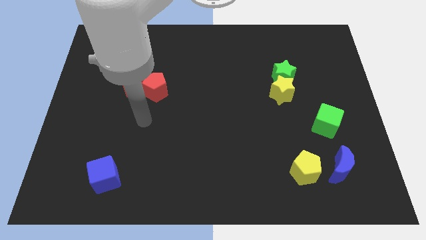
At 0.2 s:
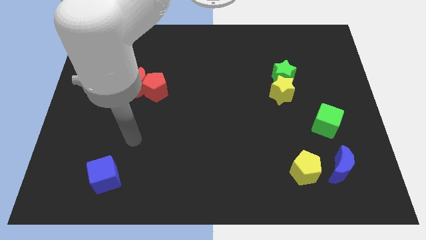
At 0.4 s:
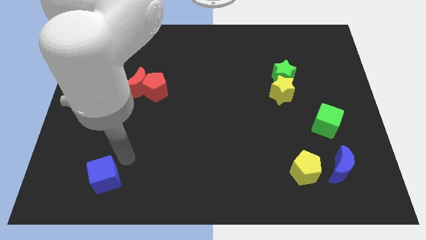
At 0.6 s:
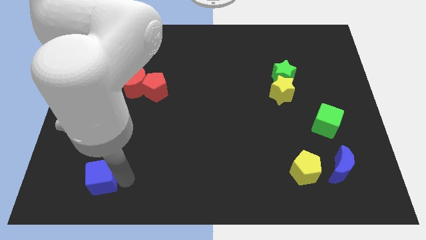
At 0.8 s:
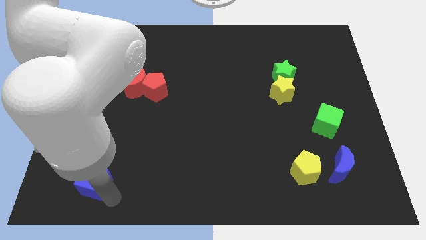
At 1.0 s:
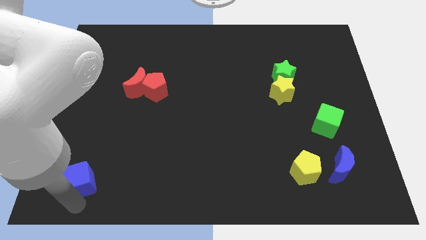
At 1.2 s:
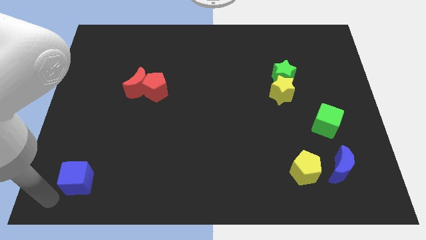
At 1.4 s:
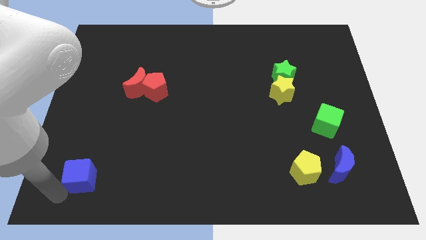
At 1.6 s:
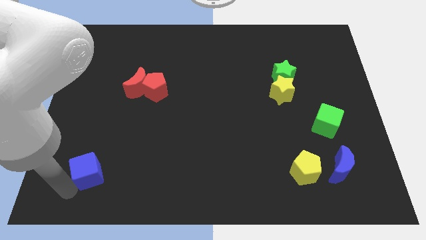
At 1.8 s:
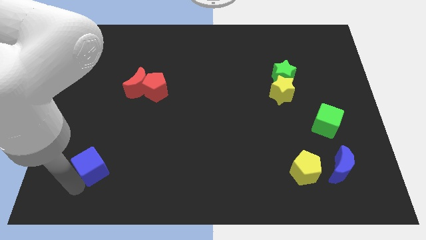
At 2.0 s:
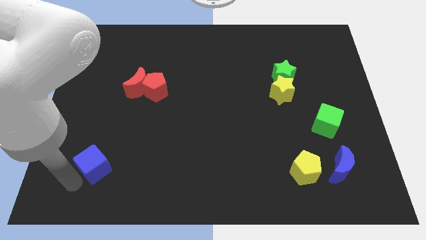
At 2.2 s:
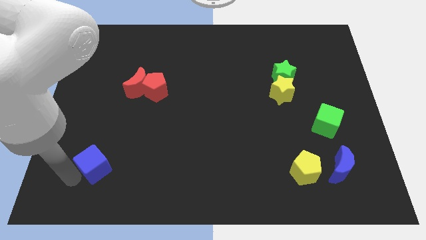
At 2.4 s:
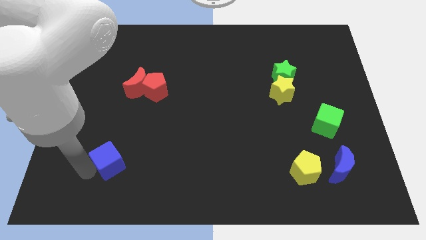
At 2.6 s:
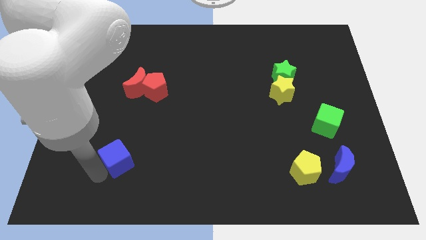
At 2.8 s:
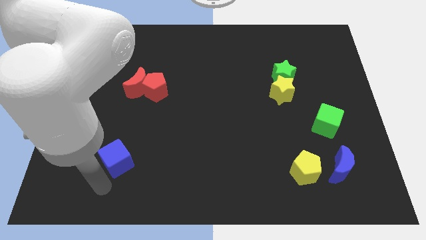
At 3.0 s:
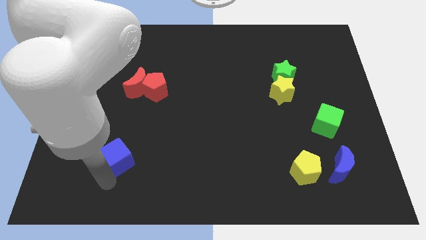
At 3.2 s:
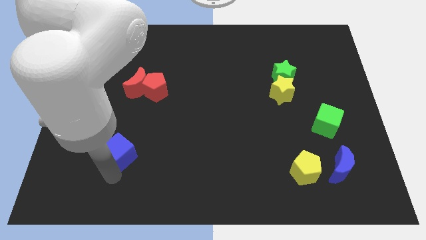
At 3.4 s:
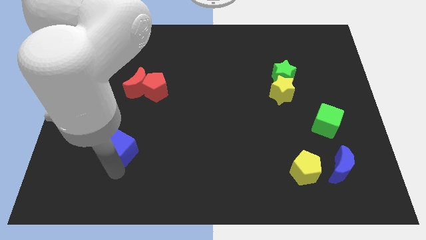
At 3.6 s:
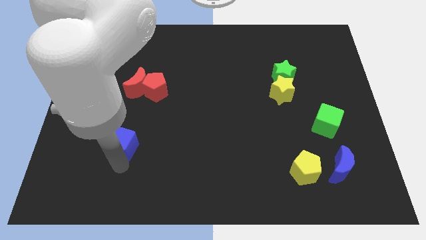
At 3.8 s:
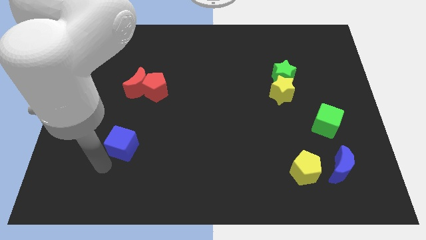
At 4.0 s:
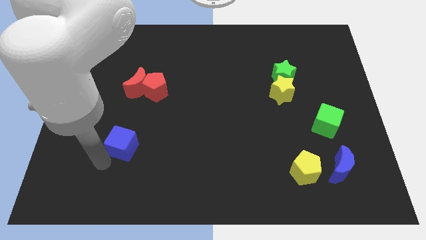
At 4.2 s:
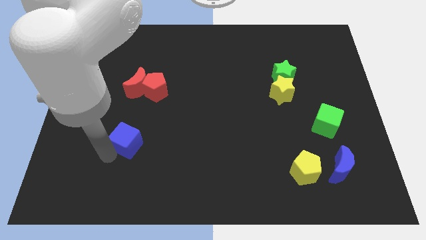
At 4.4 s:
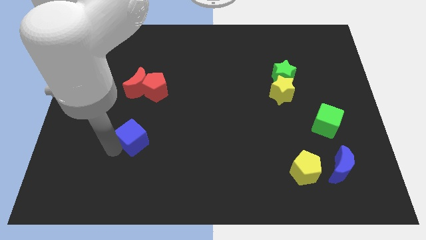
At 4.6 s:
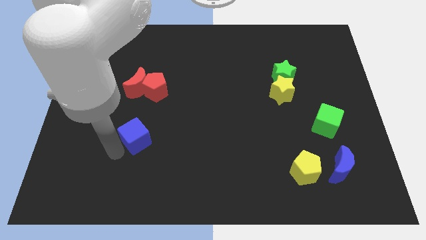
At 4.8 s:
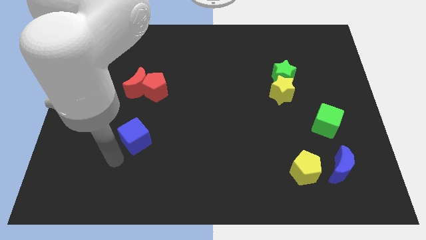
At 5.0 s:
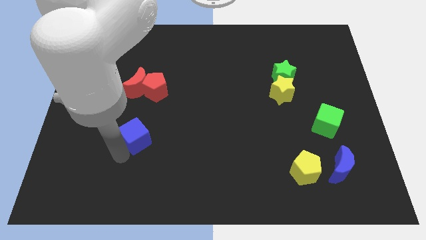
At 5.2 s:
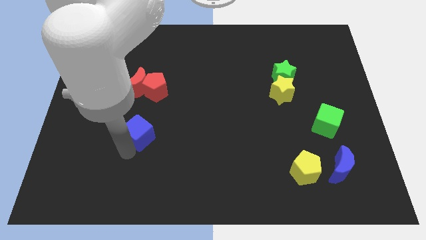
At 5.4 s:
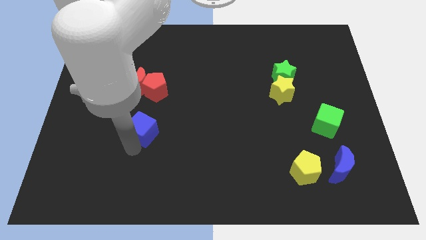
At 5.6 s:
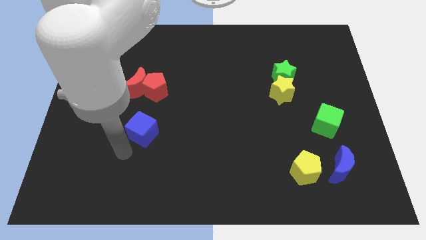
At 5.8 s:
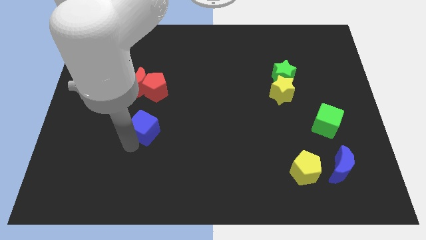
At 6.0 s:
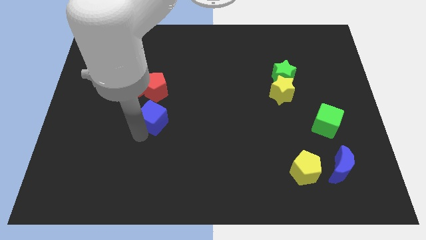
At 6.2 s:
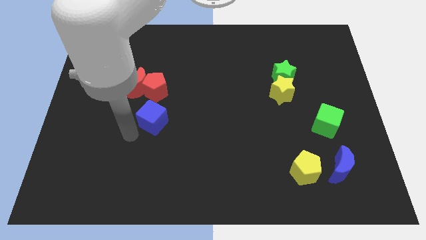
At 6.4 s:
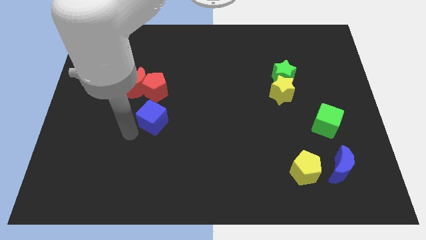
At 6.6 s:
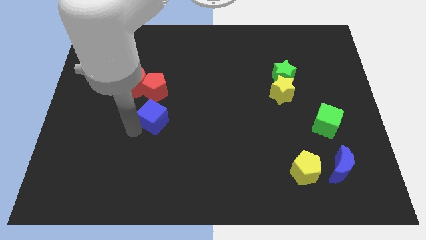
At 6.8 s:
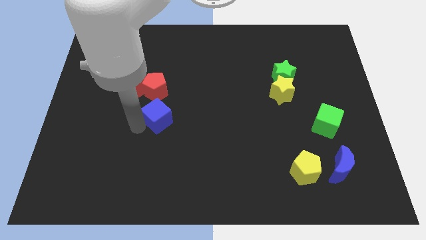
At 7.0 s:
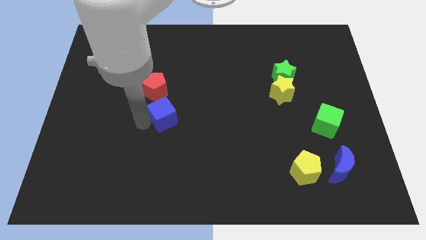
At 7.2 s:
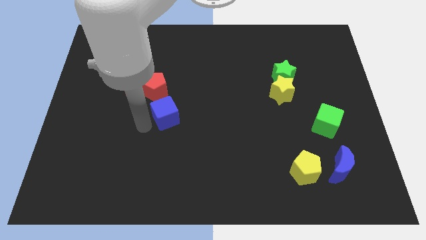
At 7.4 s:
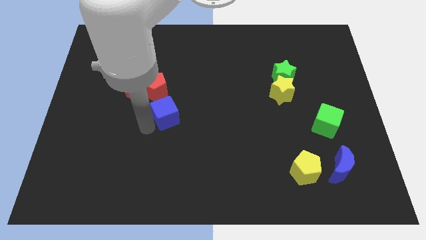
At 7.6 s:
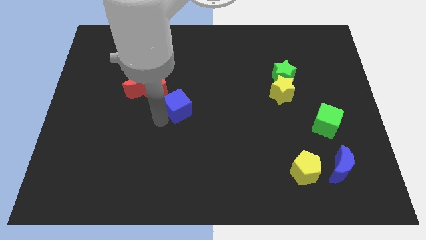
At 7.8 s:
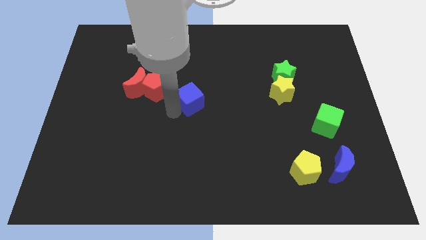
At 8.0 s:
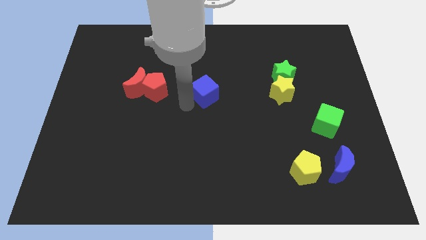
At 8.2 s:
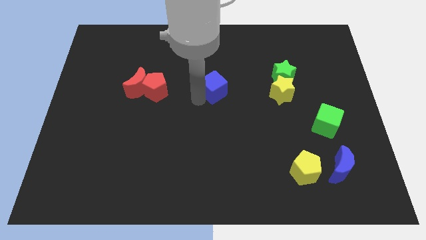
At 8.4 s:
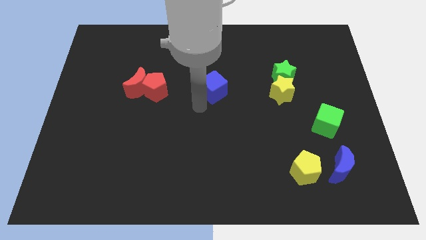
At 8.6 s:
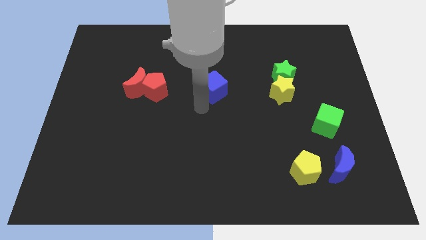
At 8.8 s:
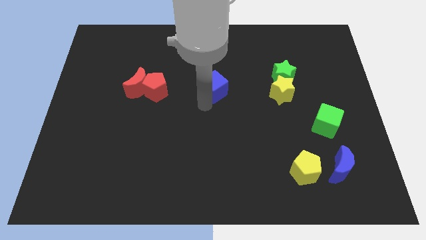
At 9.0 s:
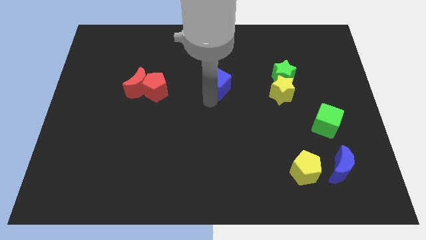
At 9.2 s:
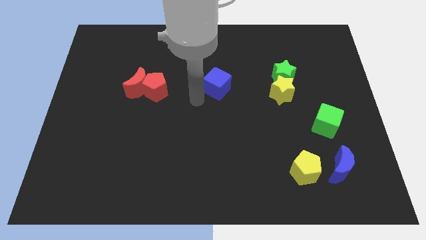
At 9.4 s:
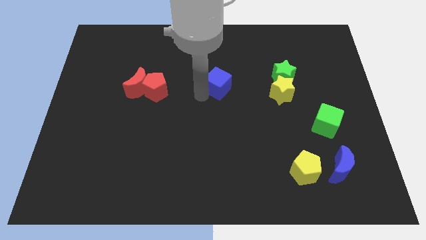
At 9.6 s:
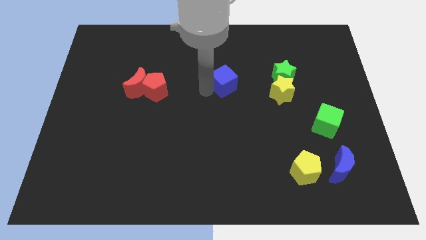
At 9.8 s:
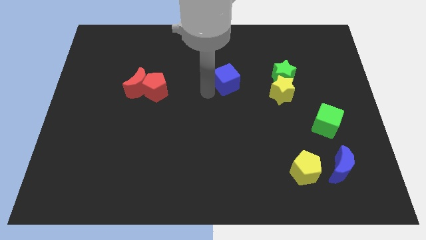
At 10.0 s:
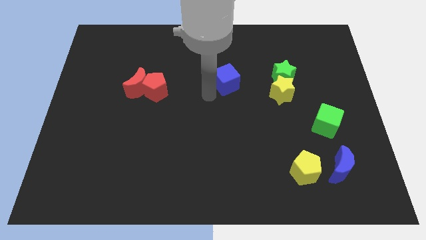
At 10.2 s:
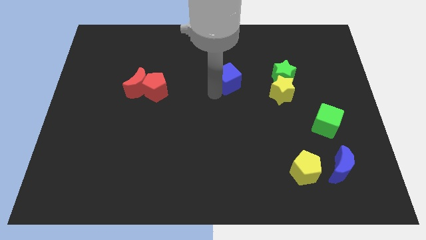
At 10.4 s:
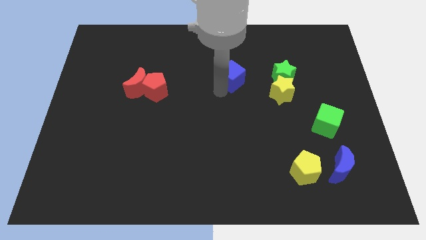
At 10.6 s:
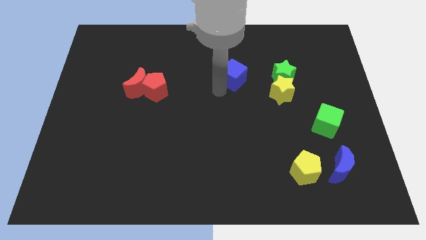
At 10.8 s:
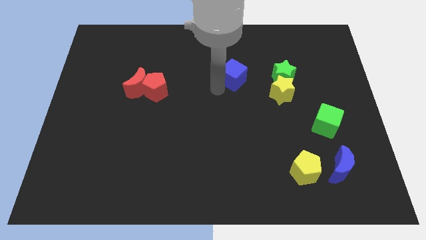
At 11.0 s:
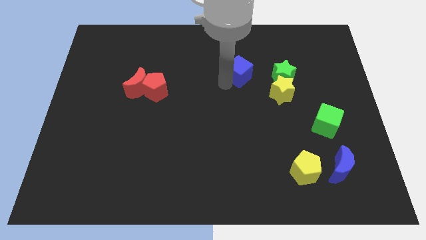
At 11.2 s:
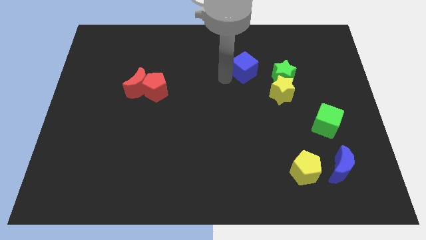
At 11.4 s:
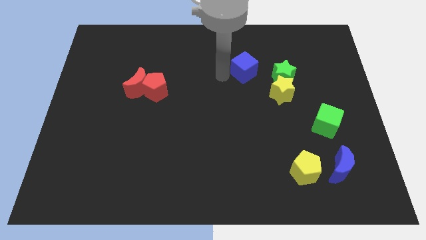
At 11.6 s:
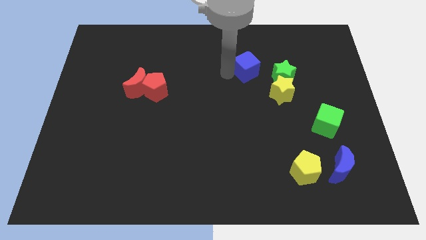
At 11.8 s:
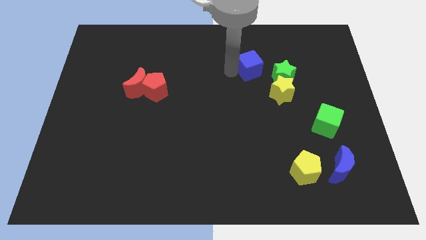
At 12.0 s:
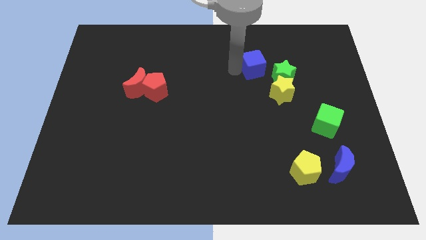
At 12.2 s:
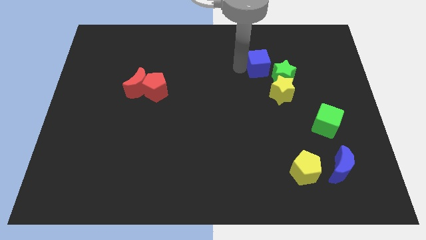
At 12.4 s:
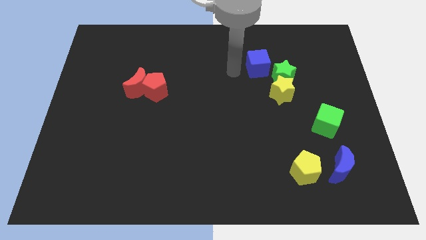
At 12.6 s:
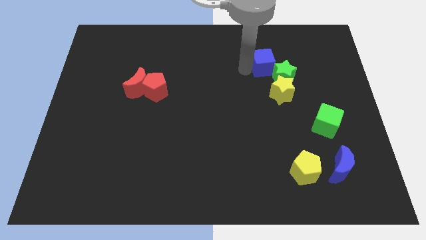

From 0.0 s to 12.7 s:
put the blue cube above the yellow star
